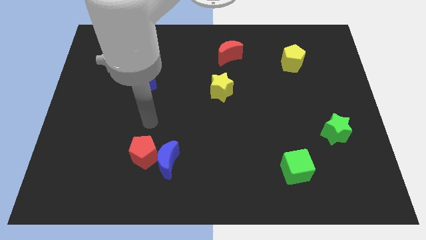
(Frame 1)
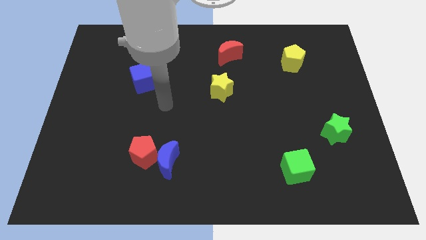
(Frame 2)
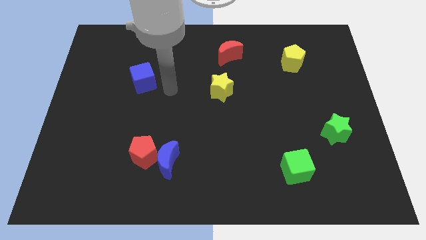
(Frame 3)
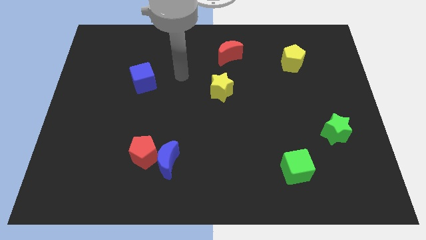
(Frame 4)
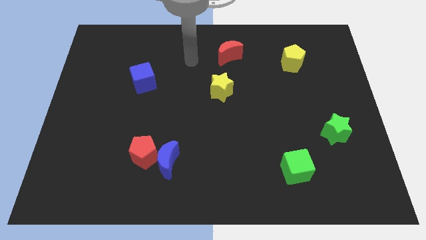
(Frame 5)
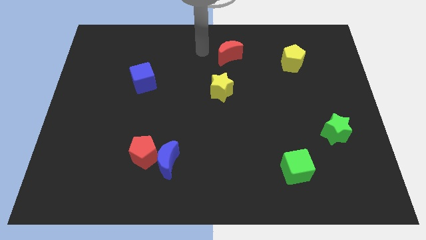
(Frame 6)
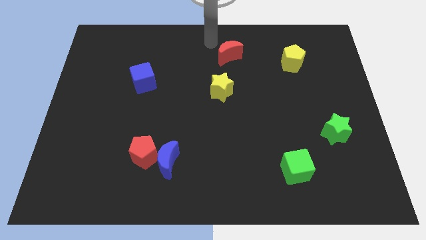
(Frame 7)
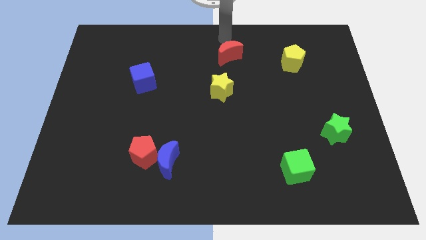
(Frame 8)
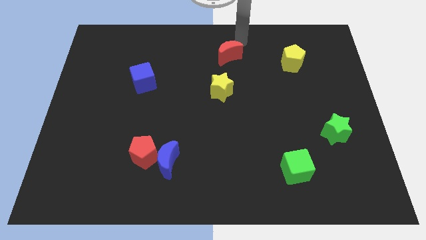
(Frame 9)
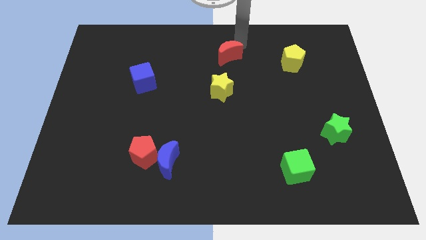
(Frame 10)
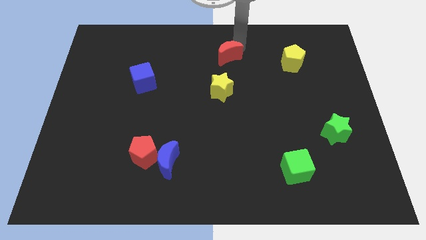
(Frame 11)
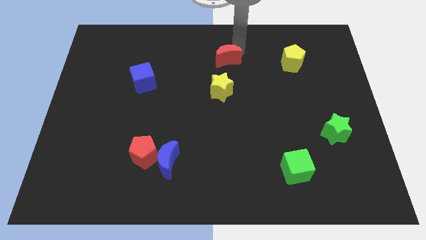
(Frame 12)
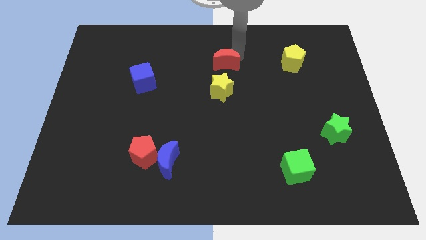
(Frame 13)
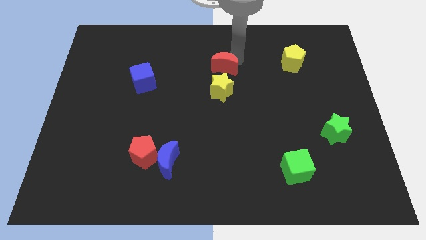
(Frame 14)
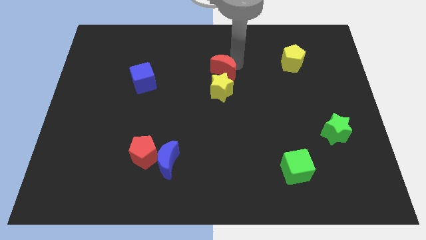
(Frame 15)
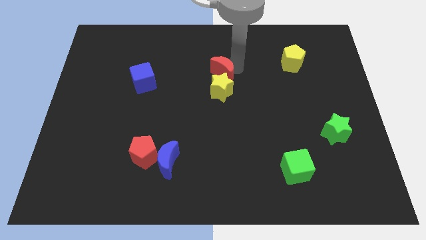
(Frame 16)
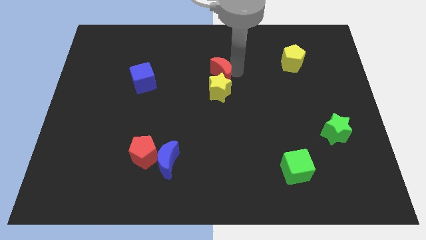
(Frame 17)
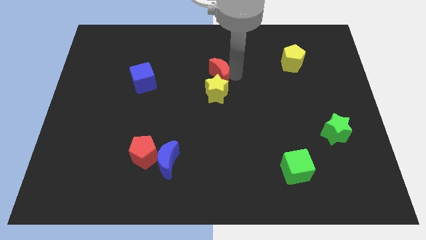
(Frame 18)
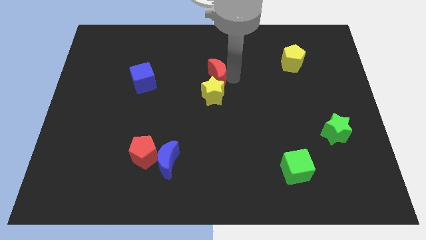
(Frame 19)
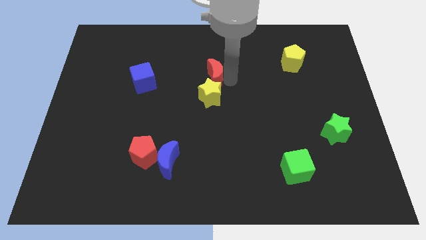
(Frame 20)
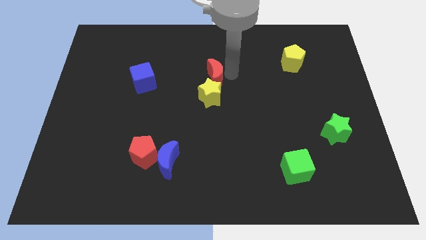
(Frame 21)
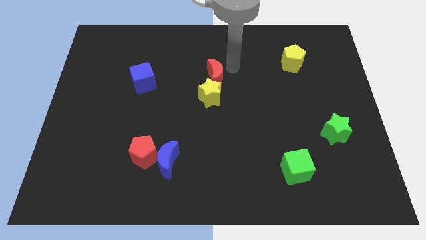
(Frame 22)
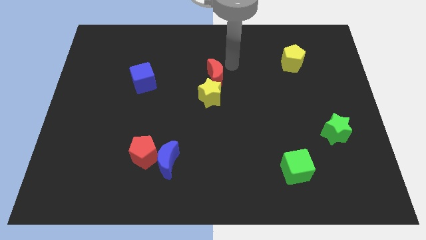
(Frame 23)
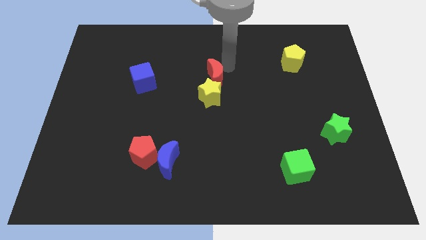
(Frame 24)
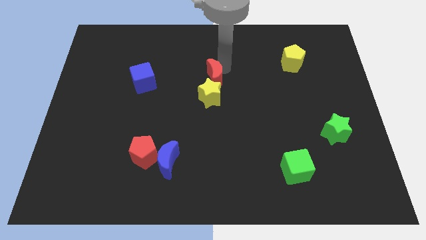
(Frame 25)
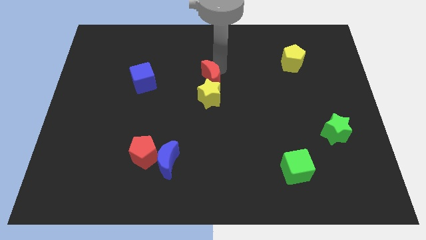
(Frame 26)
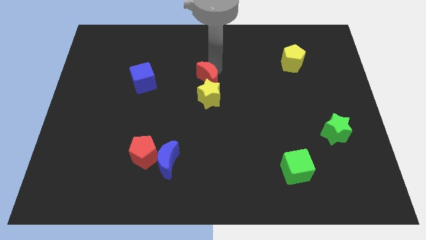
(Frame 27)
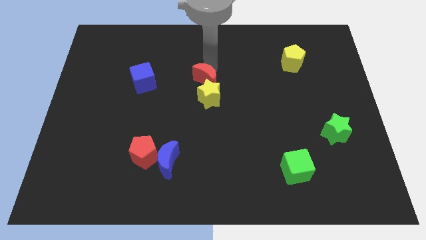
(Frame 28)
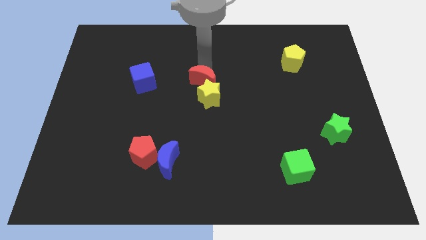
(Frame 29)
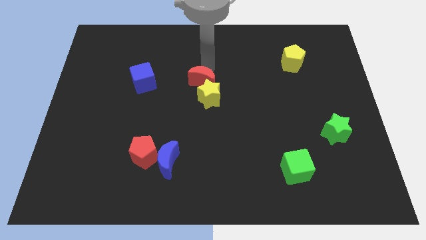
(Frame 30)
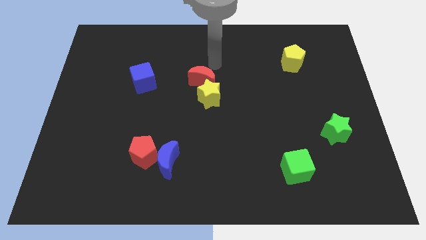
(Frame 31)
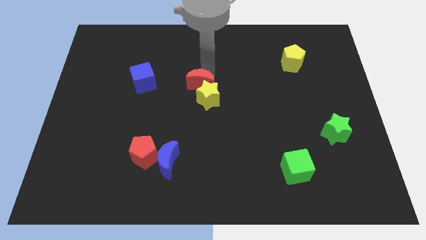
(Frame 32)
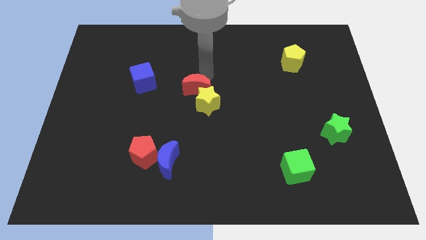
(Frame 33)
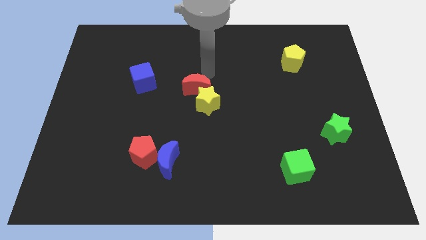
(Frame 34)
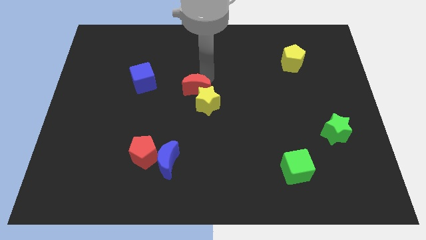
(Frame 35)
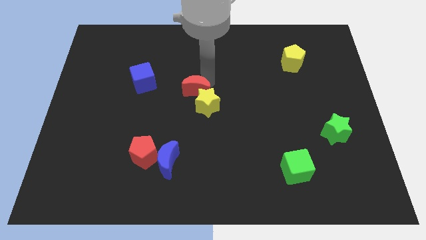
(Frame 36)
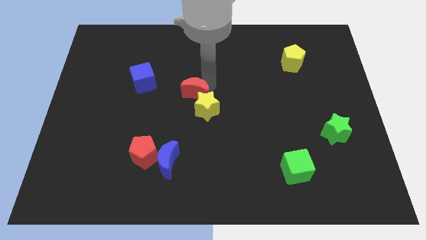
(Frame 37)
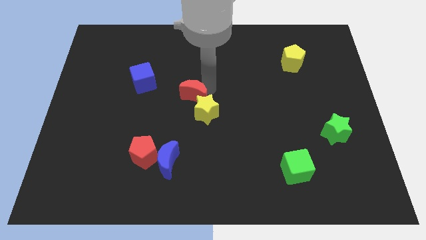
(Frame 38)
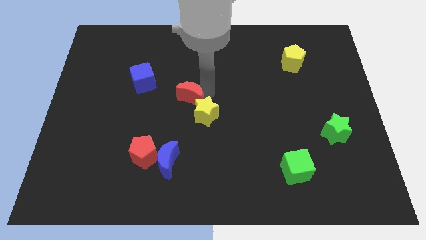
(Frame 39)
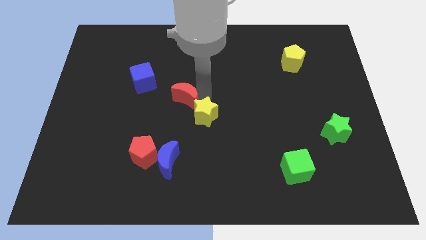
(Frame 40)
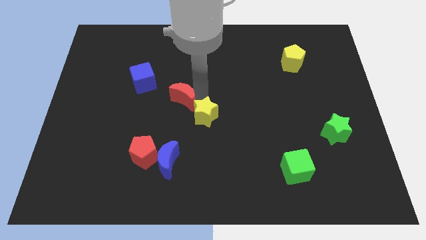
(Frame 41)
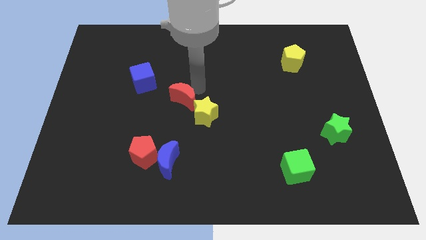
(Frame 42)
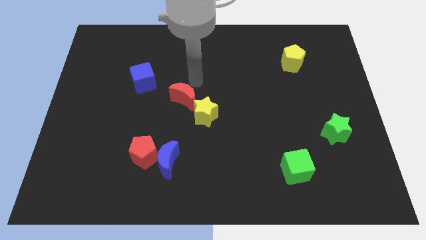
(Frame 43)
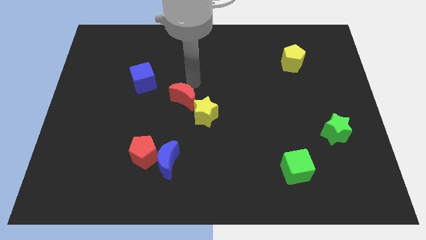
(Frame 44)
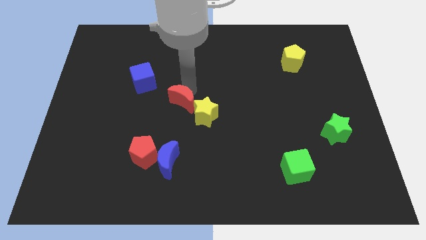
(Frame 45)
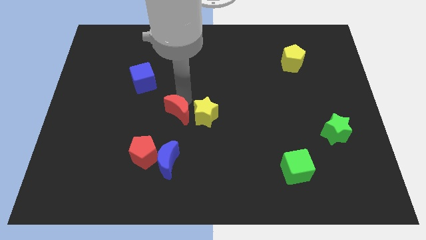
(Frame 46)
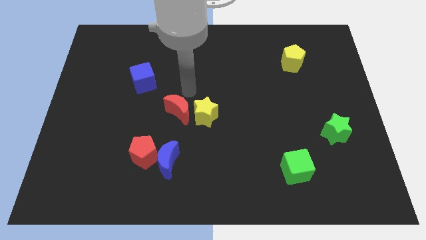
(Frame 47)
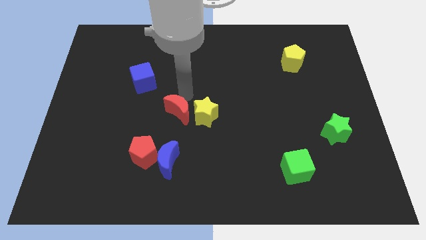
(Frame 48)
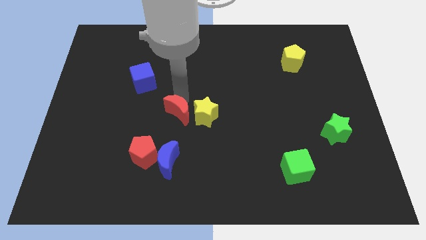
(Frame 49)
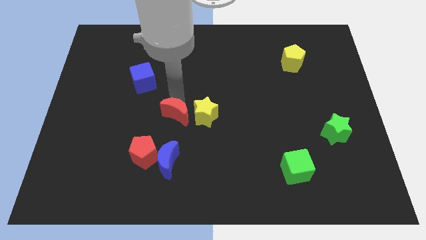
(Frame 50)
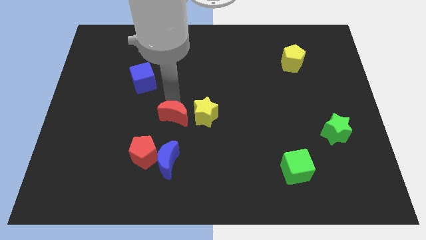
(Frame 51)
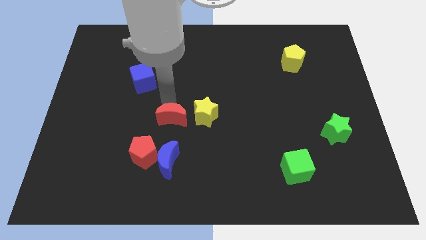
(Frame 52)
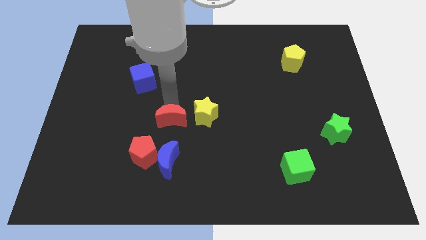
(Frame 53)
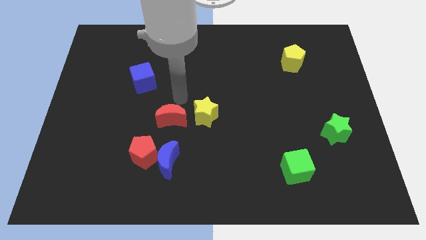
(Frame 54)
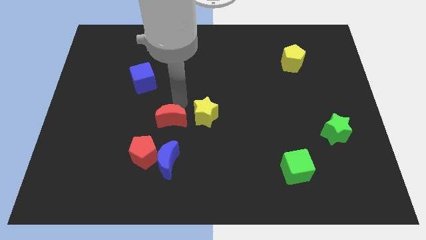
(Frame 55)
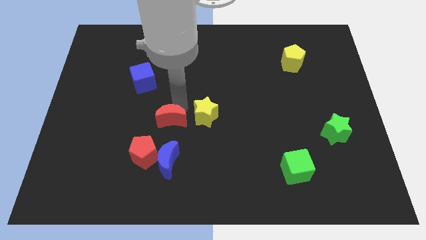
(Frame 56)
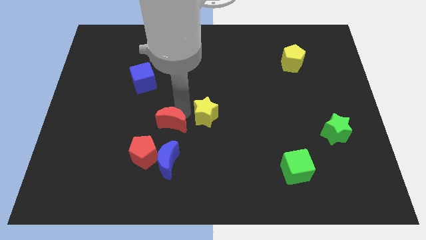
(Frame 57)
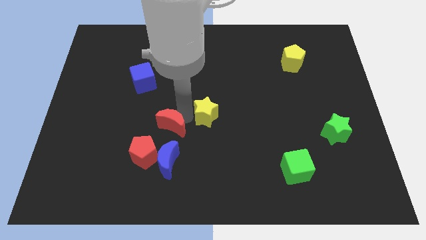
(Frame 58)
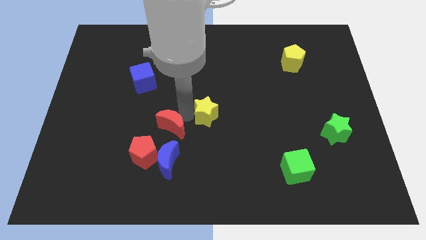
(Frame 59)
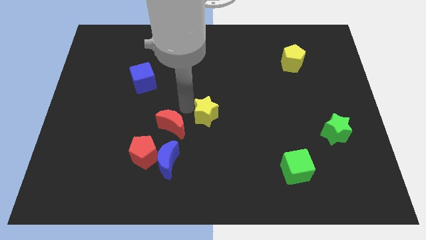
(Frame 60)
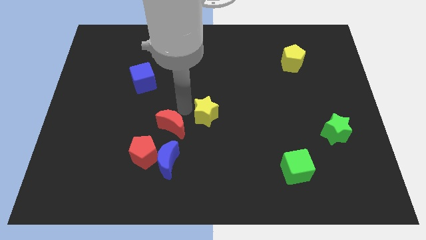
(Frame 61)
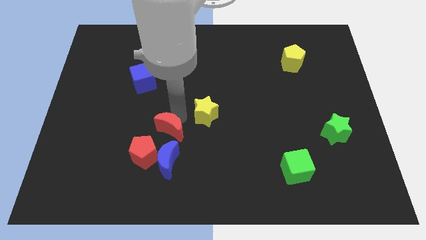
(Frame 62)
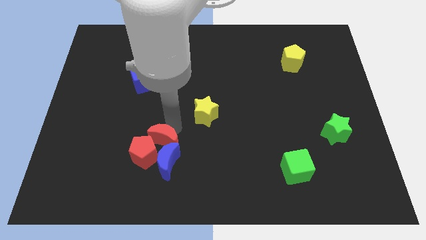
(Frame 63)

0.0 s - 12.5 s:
move the red moon towards the red pentagon
